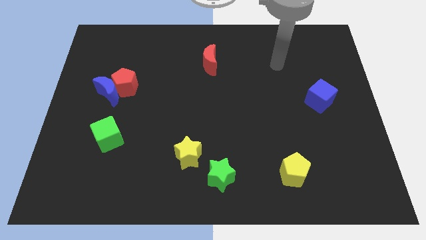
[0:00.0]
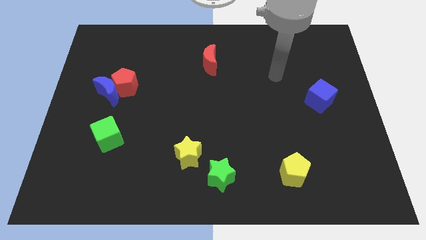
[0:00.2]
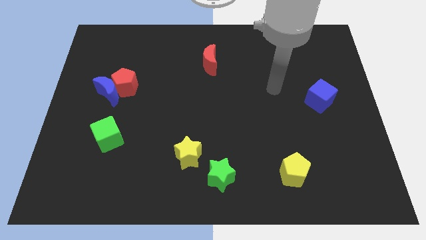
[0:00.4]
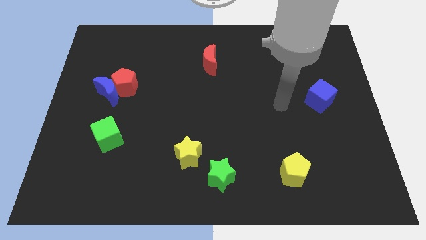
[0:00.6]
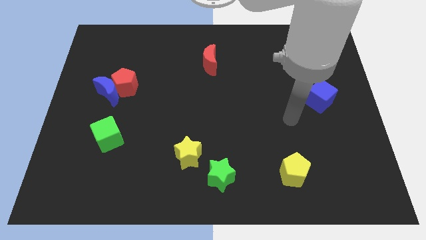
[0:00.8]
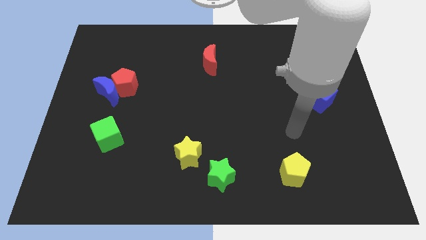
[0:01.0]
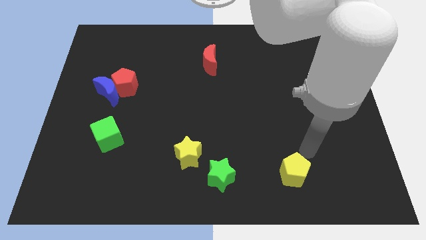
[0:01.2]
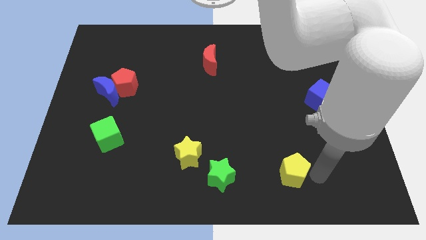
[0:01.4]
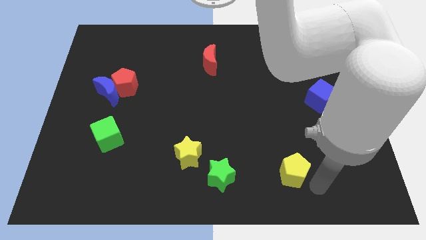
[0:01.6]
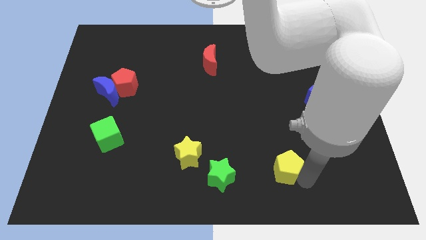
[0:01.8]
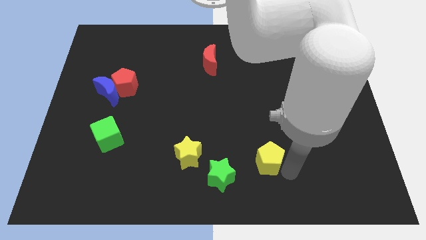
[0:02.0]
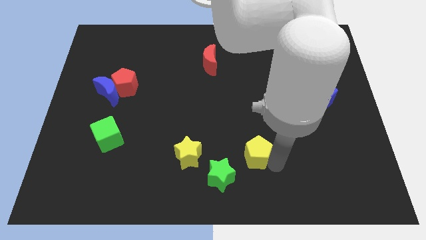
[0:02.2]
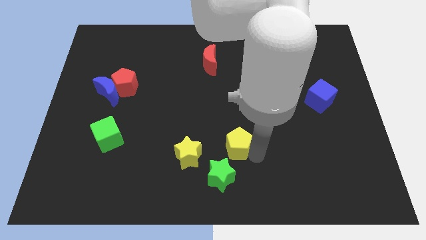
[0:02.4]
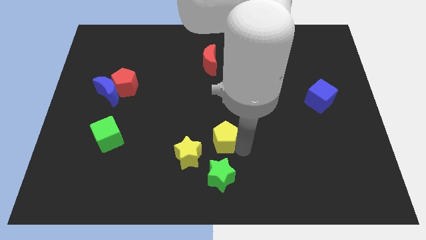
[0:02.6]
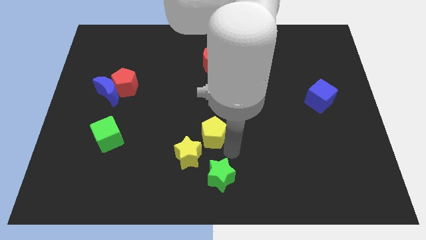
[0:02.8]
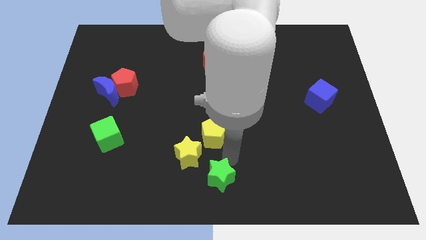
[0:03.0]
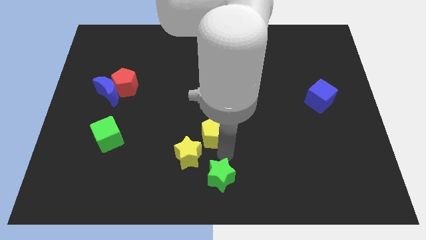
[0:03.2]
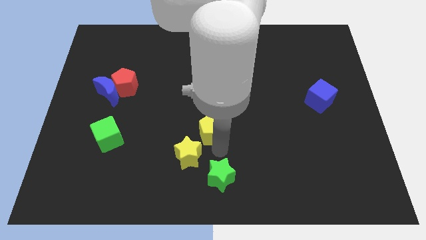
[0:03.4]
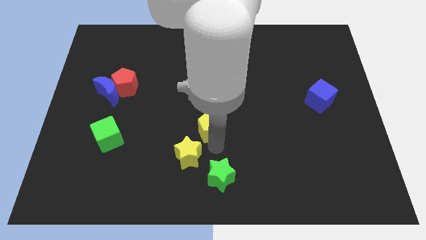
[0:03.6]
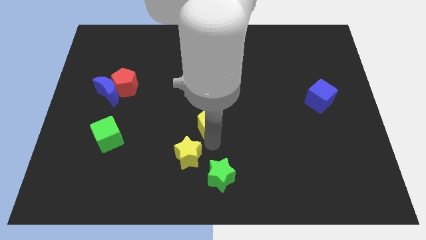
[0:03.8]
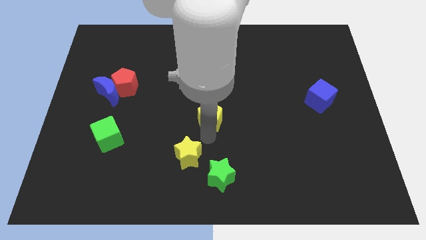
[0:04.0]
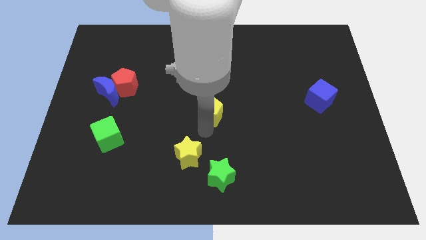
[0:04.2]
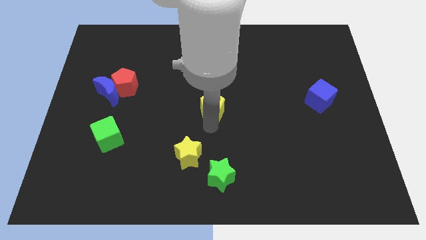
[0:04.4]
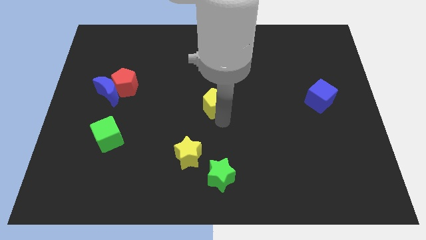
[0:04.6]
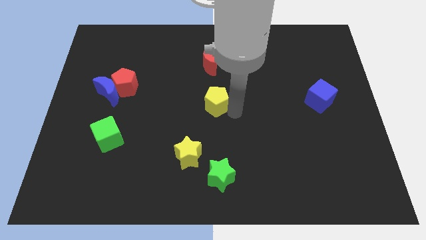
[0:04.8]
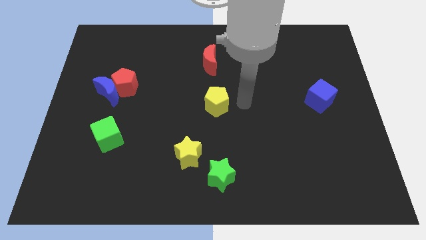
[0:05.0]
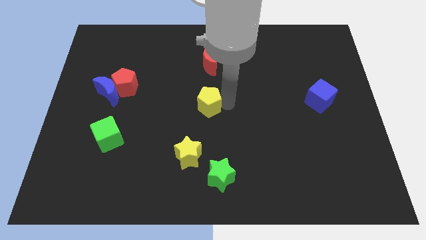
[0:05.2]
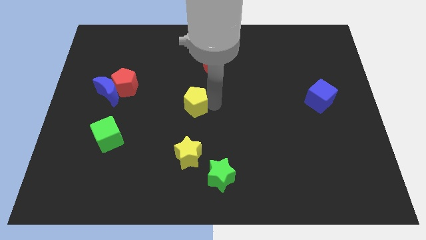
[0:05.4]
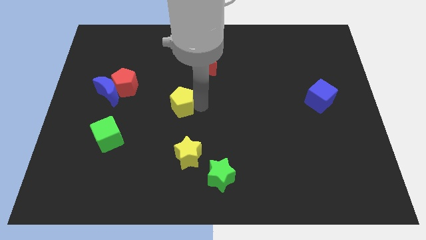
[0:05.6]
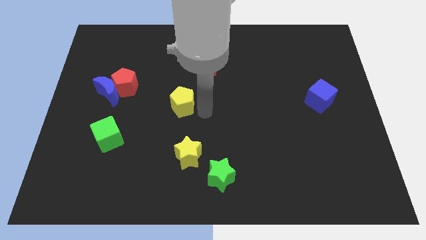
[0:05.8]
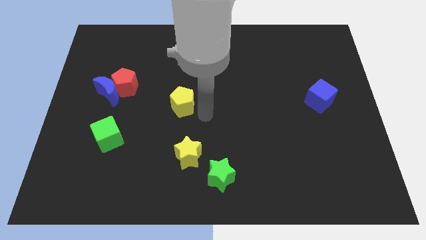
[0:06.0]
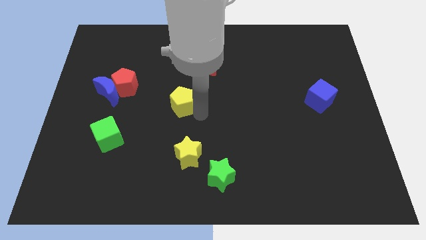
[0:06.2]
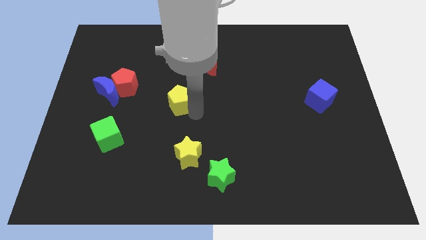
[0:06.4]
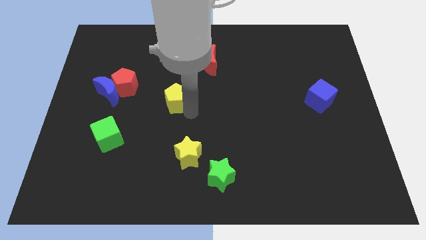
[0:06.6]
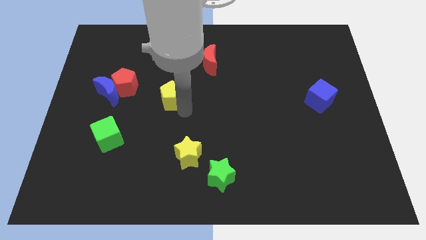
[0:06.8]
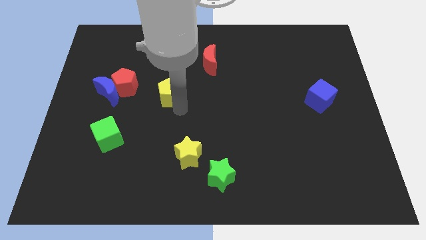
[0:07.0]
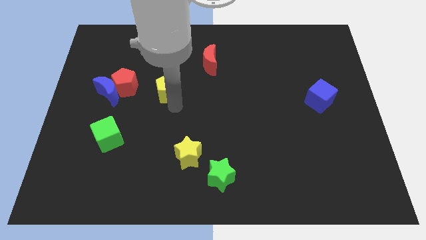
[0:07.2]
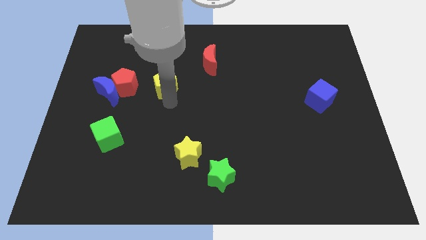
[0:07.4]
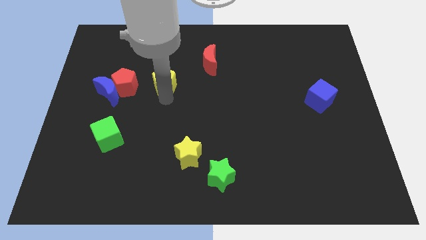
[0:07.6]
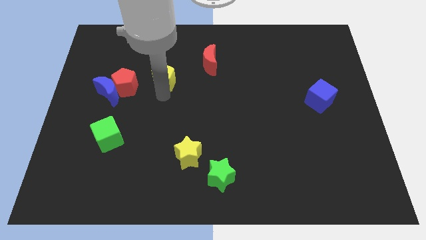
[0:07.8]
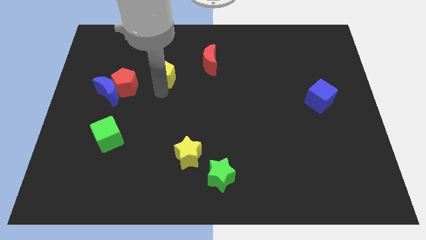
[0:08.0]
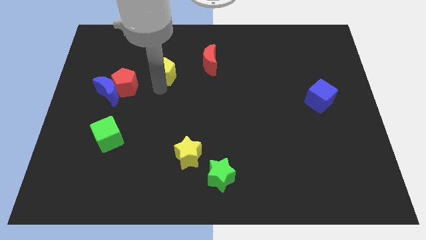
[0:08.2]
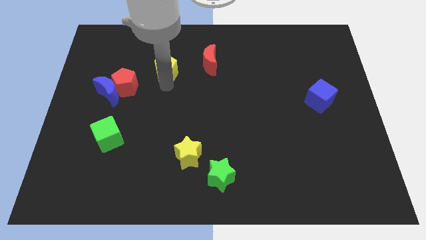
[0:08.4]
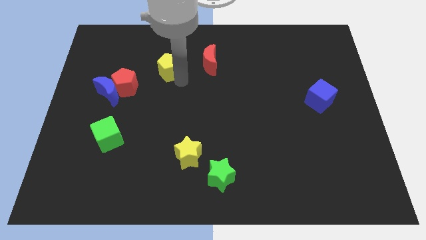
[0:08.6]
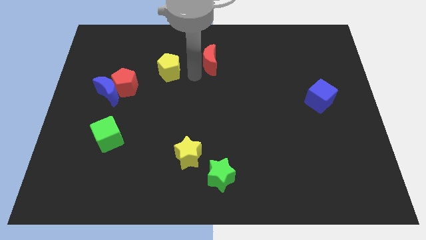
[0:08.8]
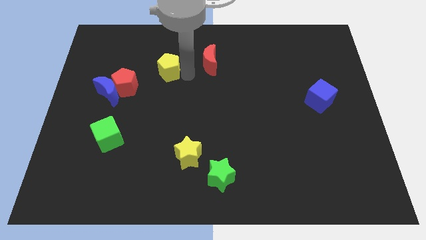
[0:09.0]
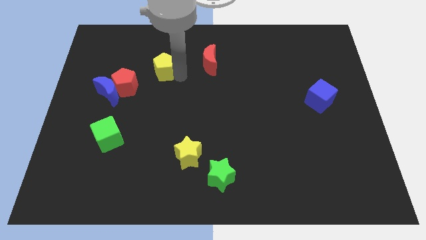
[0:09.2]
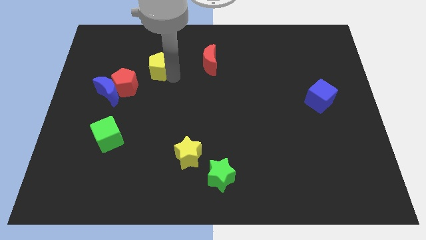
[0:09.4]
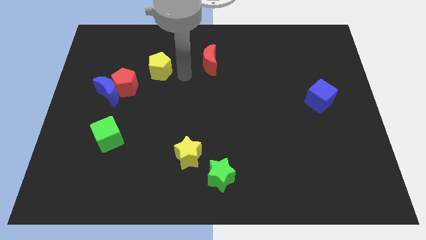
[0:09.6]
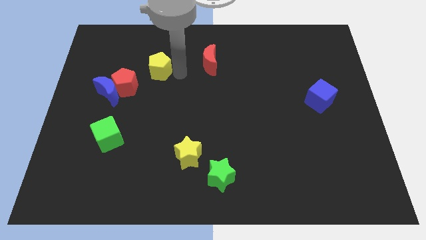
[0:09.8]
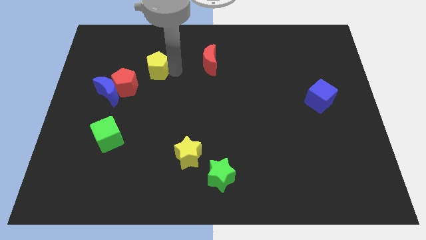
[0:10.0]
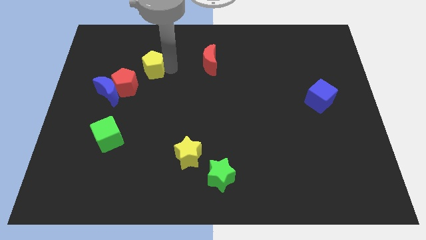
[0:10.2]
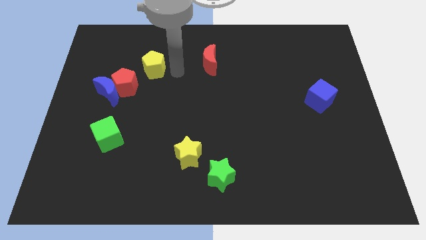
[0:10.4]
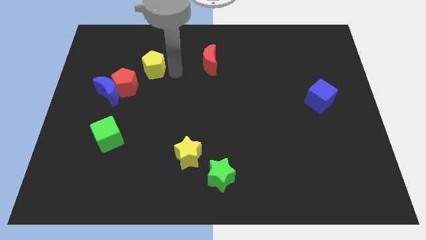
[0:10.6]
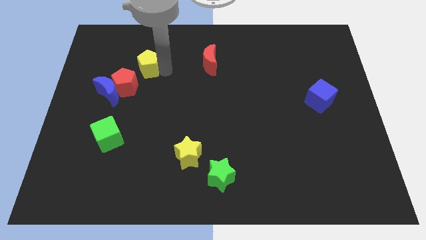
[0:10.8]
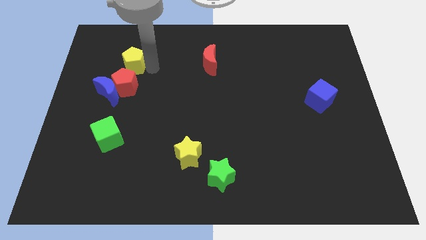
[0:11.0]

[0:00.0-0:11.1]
move the yellow pentagon to the top side of the blue moon

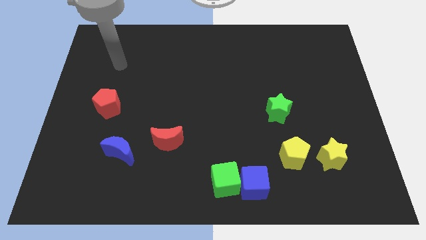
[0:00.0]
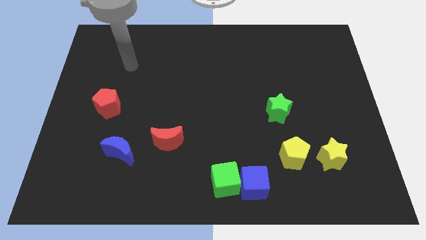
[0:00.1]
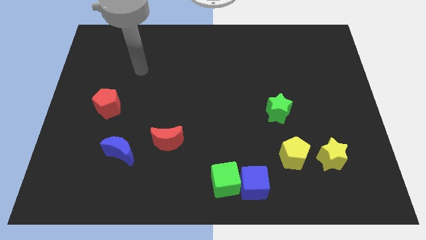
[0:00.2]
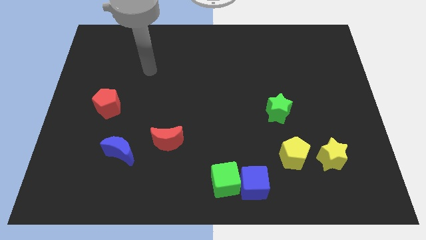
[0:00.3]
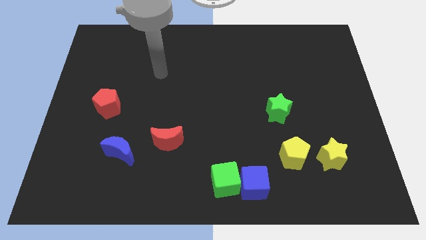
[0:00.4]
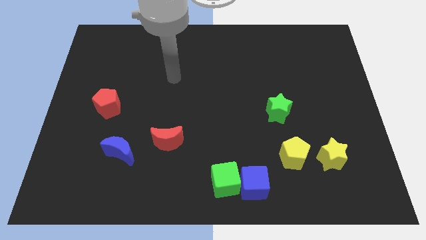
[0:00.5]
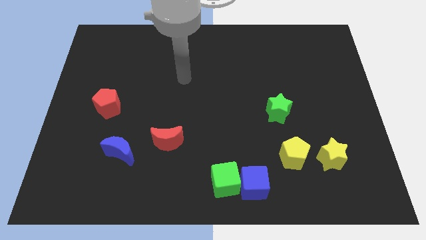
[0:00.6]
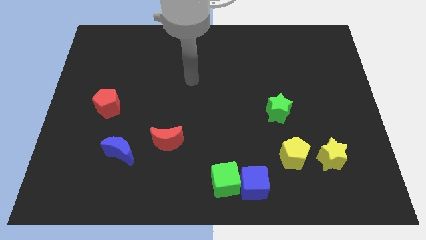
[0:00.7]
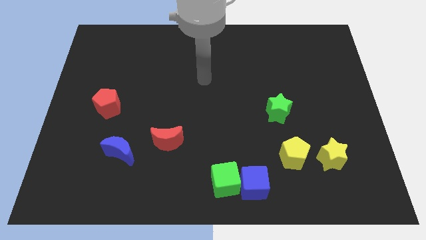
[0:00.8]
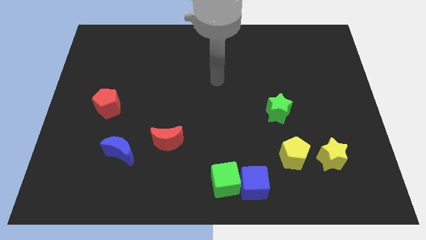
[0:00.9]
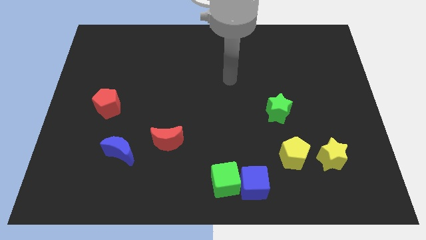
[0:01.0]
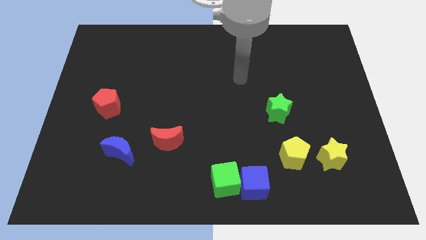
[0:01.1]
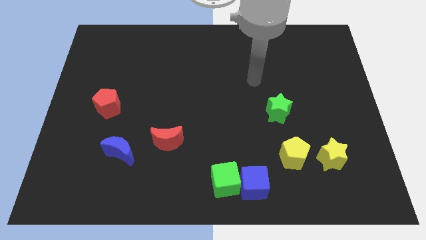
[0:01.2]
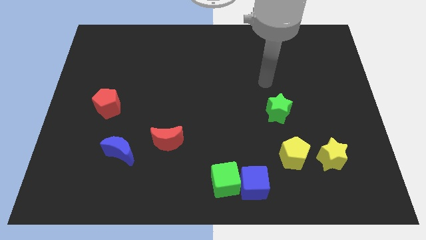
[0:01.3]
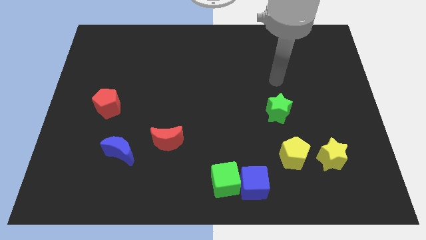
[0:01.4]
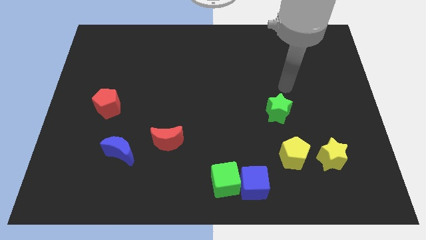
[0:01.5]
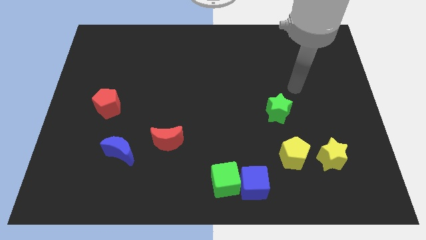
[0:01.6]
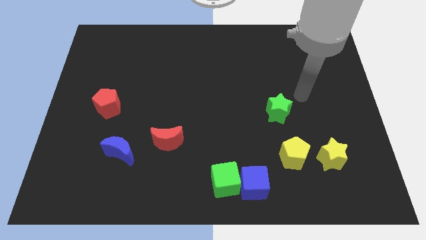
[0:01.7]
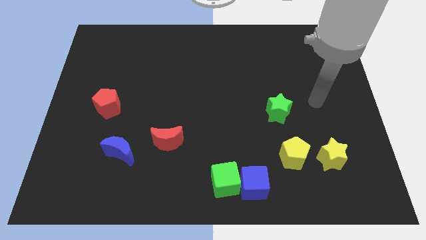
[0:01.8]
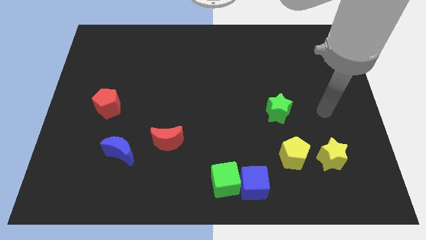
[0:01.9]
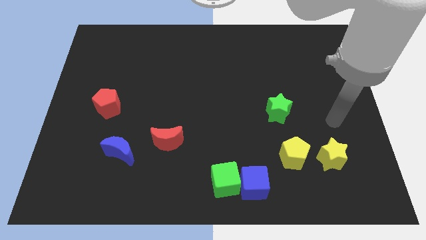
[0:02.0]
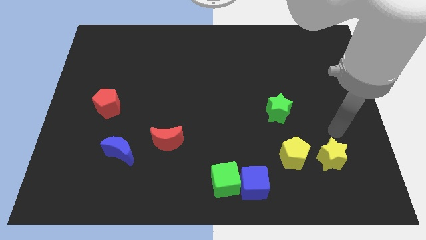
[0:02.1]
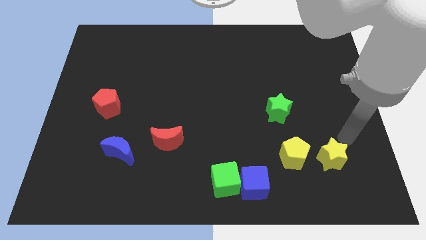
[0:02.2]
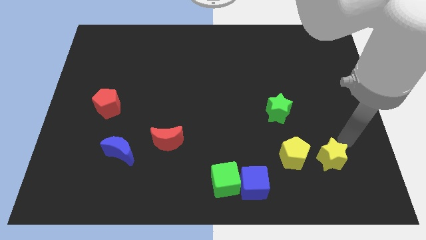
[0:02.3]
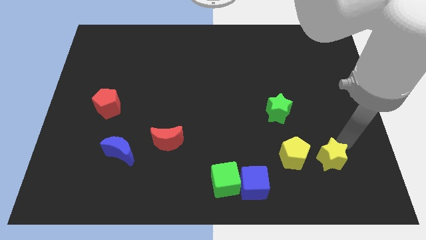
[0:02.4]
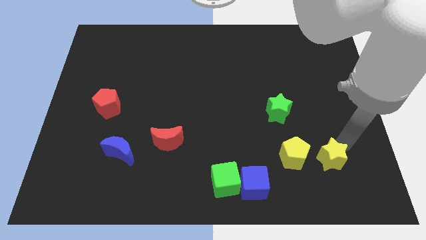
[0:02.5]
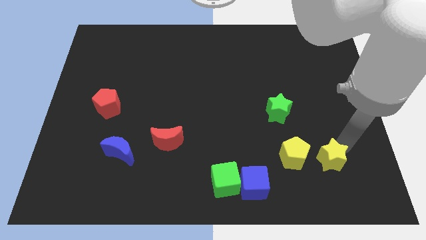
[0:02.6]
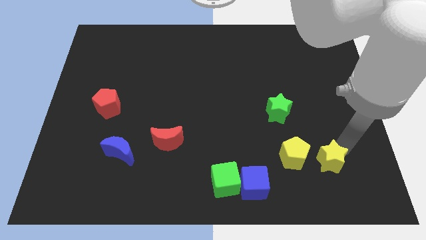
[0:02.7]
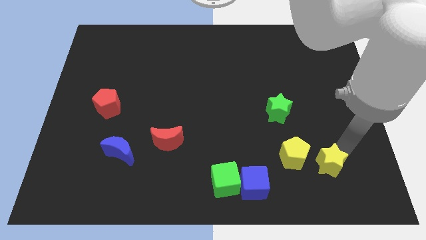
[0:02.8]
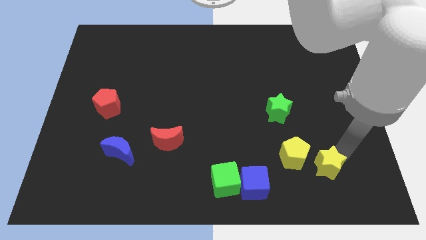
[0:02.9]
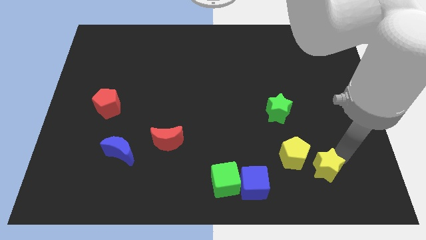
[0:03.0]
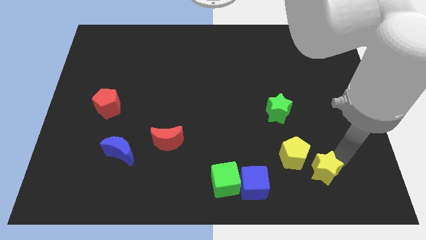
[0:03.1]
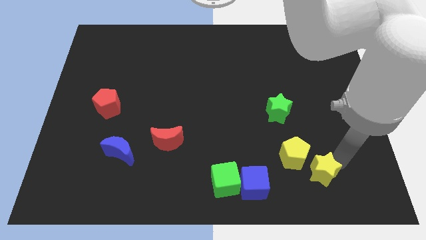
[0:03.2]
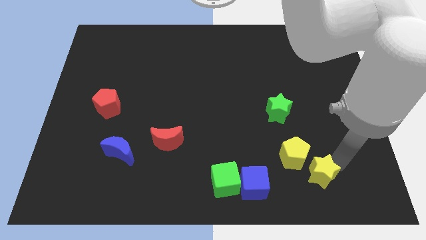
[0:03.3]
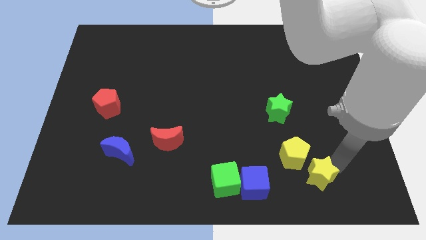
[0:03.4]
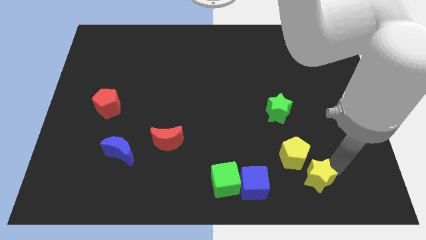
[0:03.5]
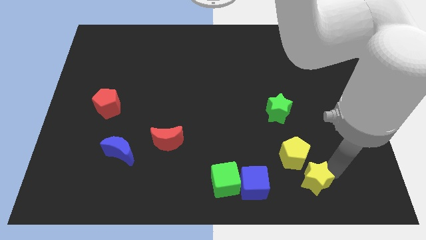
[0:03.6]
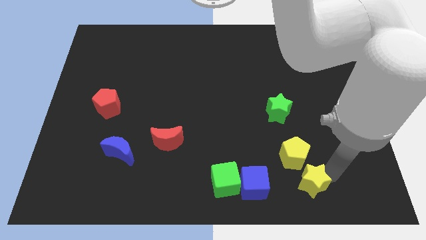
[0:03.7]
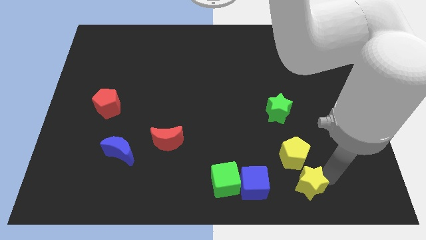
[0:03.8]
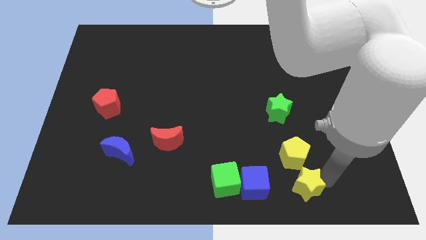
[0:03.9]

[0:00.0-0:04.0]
put the yellow star to the right side of the green cube
